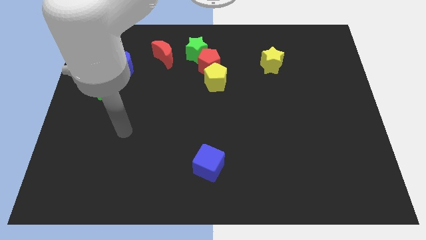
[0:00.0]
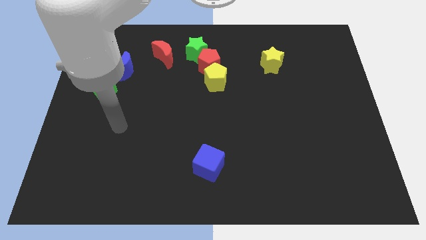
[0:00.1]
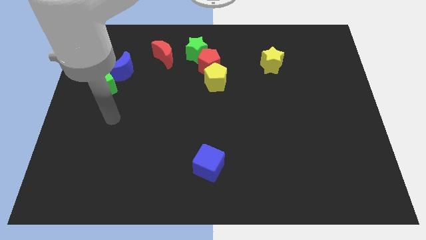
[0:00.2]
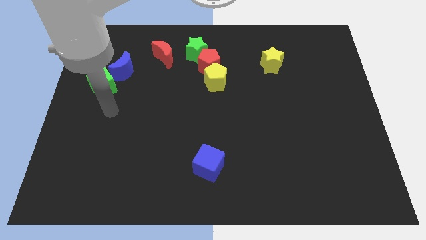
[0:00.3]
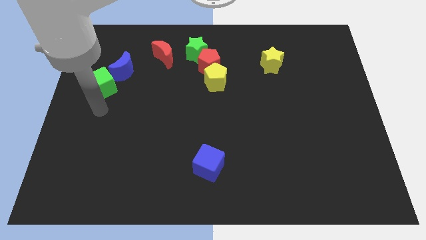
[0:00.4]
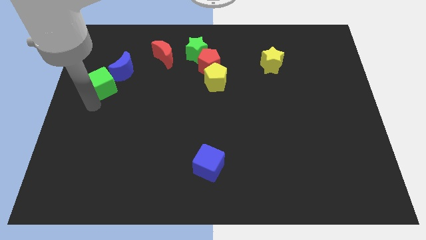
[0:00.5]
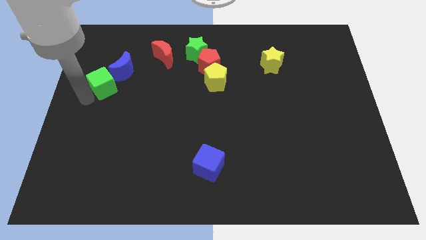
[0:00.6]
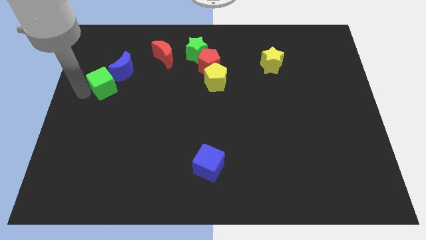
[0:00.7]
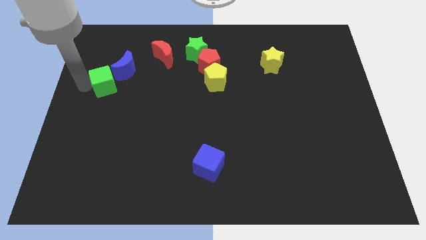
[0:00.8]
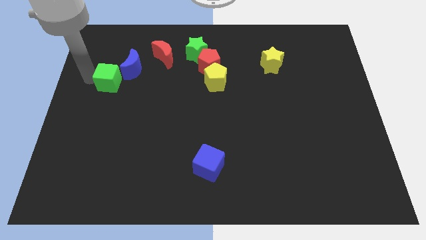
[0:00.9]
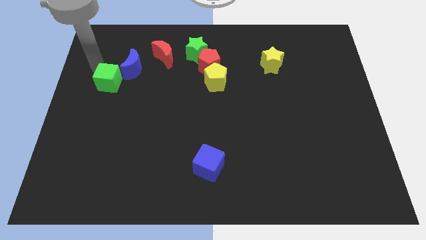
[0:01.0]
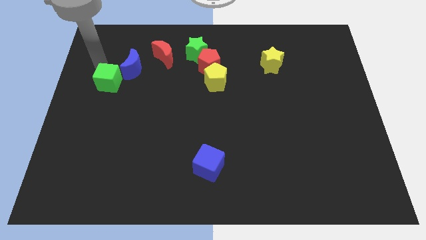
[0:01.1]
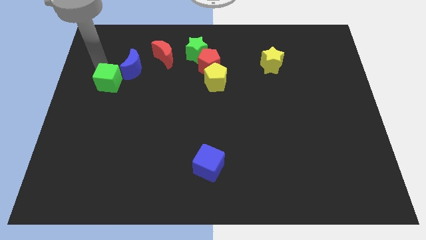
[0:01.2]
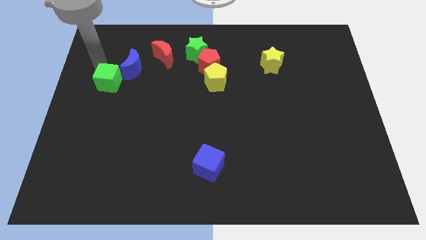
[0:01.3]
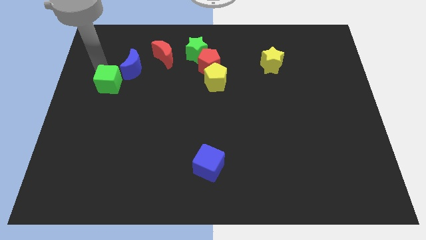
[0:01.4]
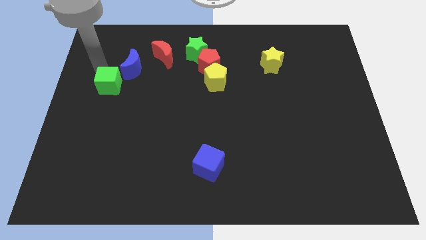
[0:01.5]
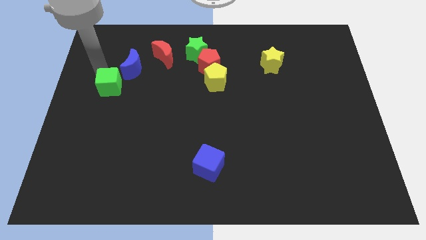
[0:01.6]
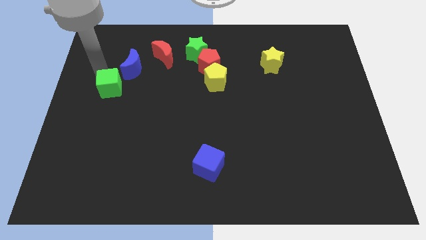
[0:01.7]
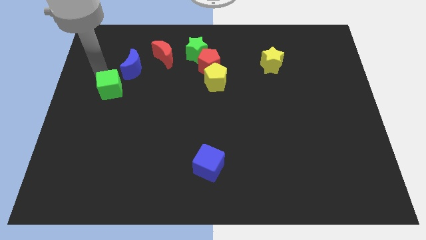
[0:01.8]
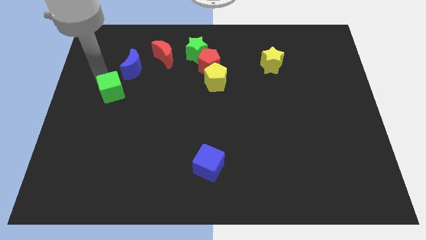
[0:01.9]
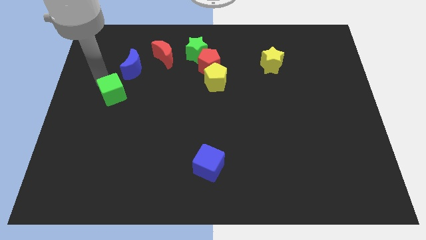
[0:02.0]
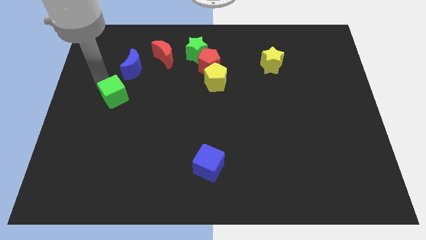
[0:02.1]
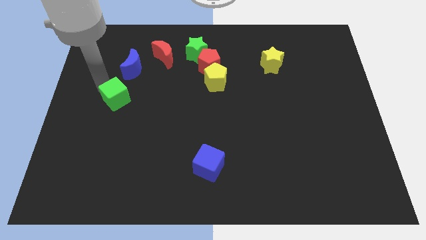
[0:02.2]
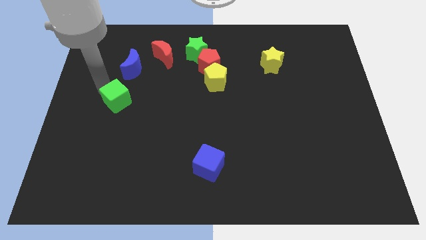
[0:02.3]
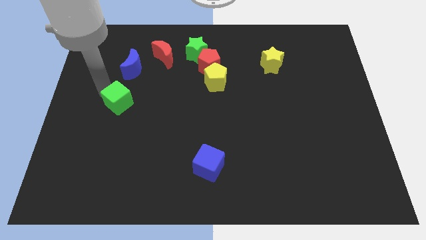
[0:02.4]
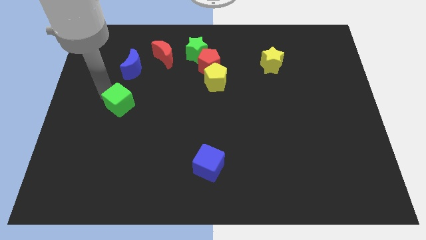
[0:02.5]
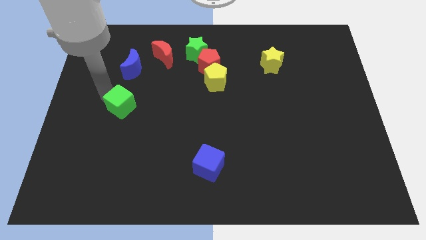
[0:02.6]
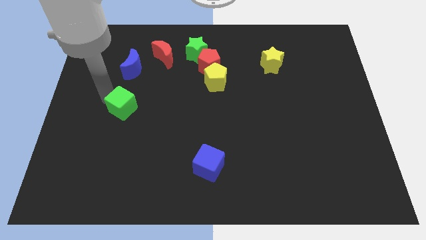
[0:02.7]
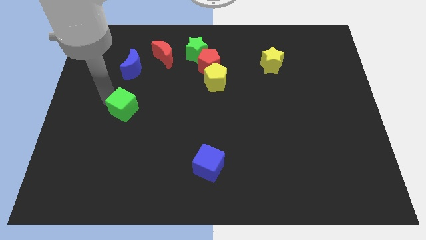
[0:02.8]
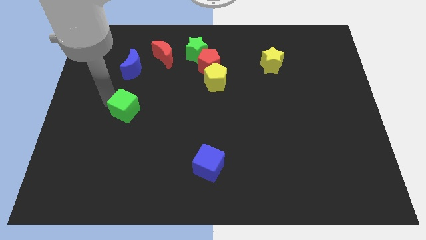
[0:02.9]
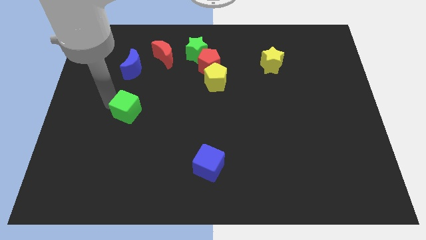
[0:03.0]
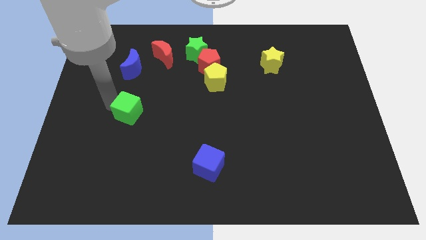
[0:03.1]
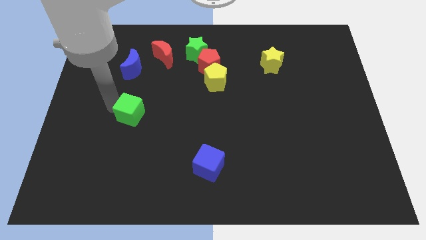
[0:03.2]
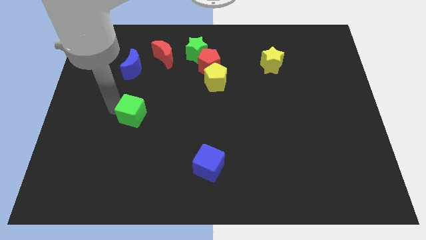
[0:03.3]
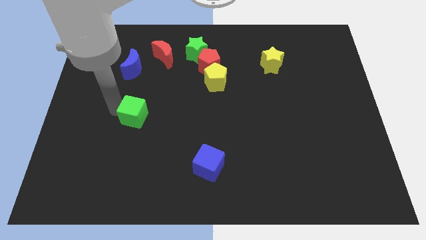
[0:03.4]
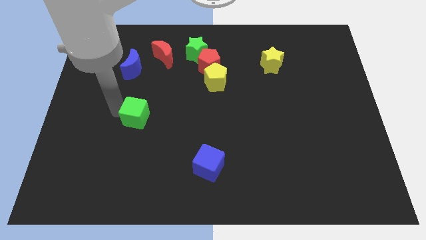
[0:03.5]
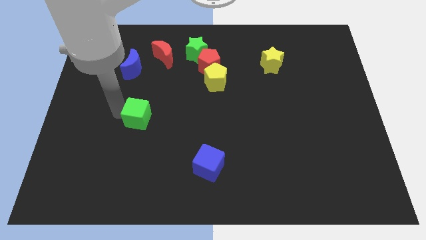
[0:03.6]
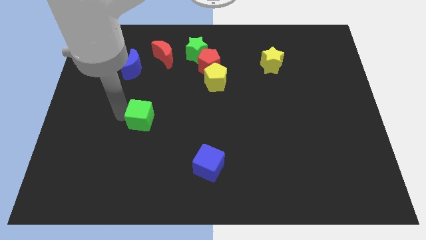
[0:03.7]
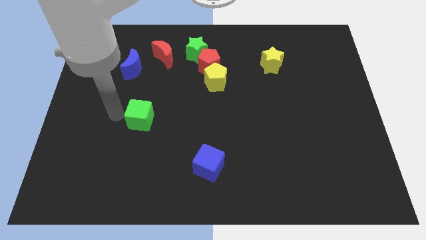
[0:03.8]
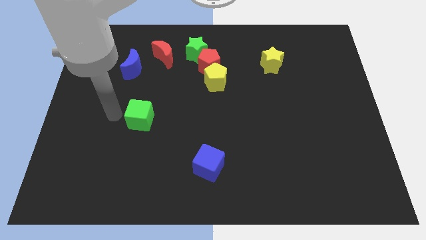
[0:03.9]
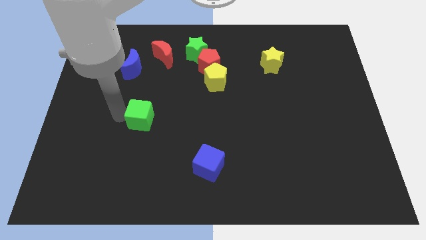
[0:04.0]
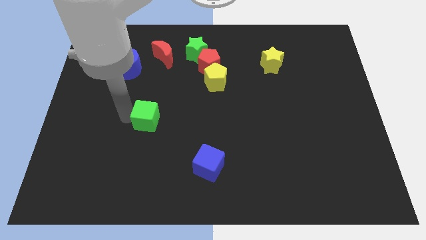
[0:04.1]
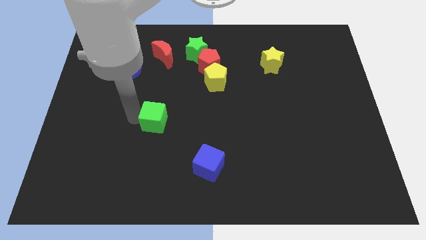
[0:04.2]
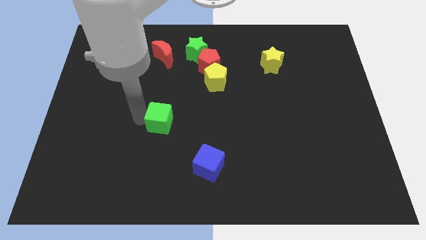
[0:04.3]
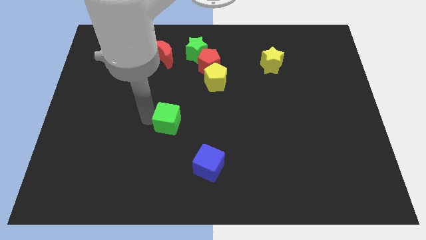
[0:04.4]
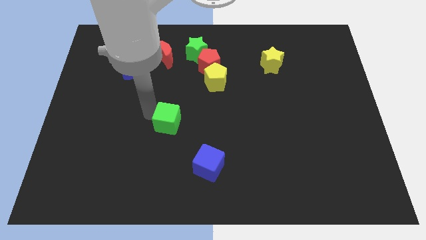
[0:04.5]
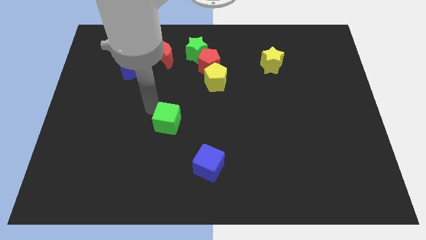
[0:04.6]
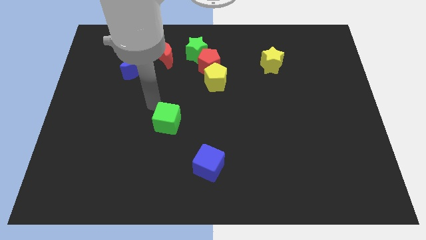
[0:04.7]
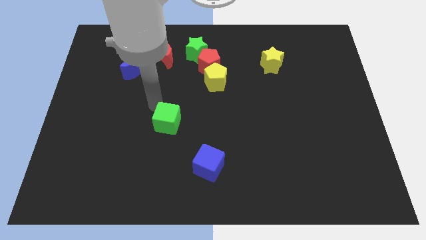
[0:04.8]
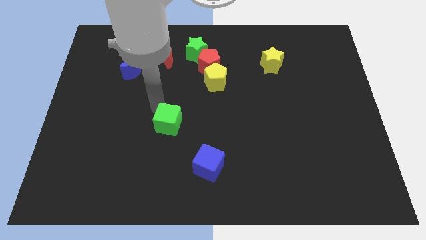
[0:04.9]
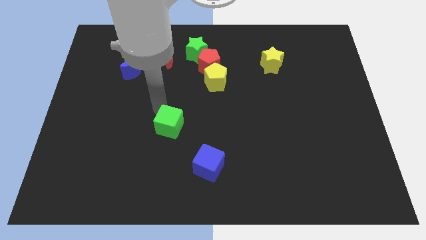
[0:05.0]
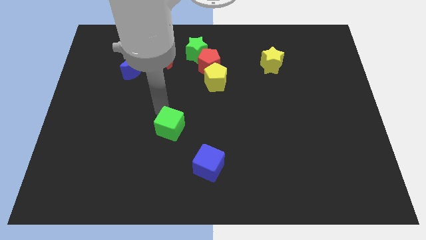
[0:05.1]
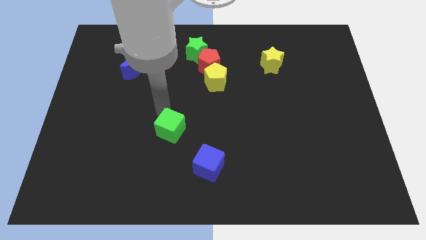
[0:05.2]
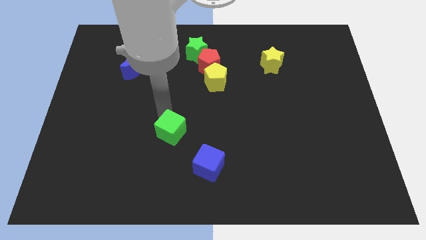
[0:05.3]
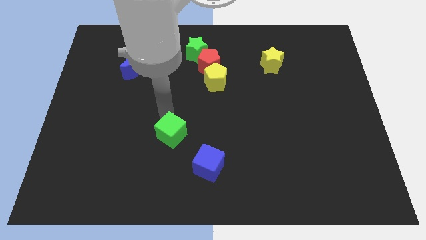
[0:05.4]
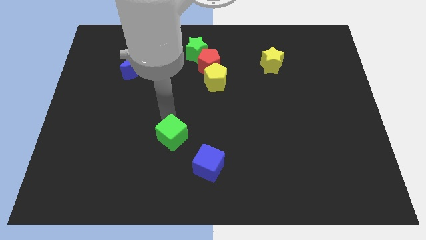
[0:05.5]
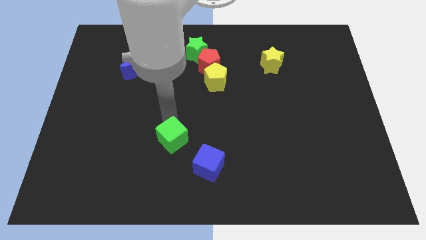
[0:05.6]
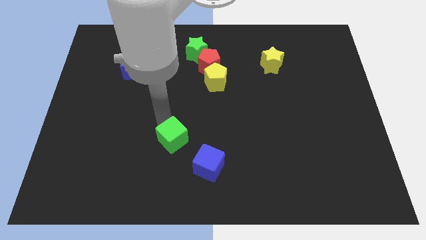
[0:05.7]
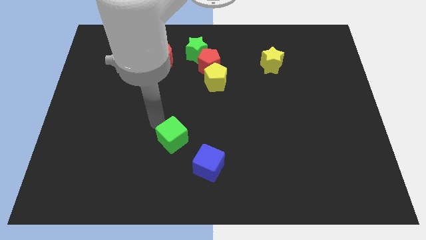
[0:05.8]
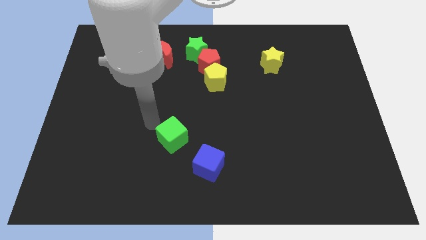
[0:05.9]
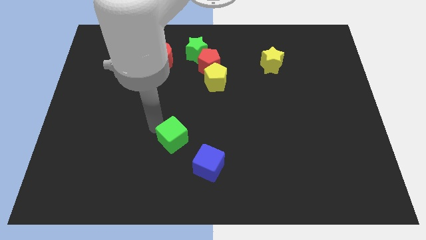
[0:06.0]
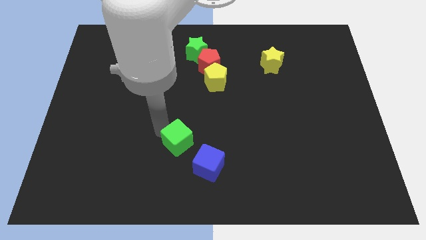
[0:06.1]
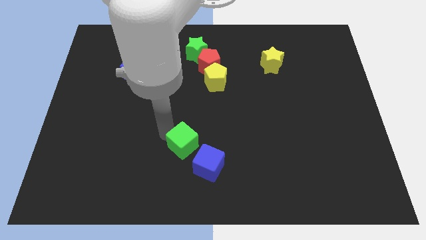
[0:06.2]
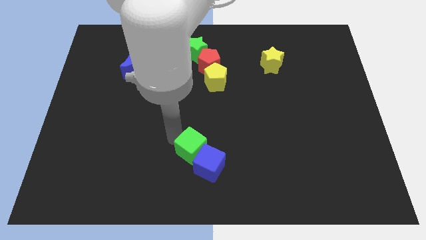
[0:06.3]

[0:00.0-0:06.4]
slide the green cube next to the blue cube
